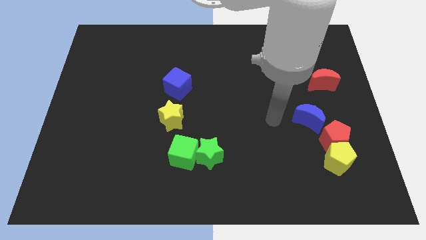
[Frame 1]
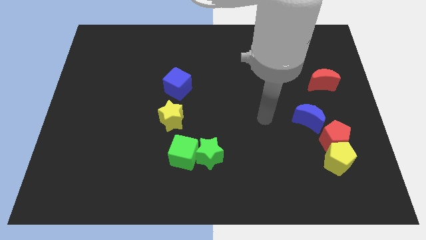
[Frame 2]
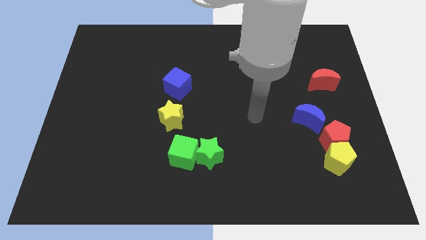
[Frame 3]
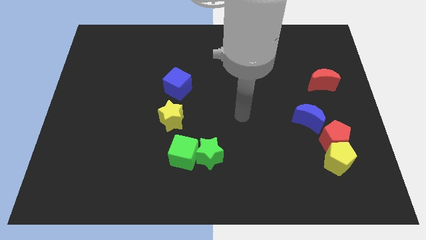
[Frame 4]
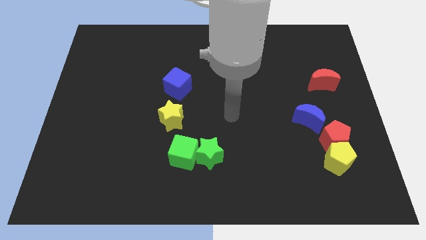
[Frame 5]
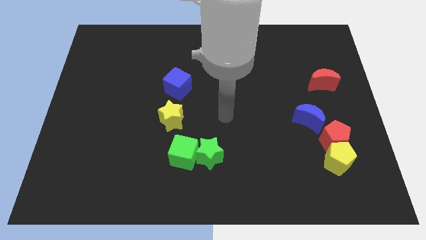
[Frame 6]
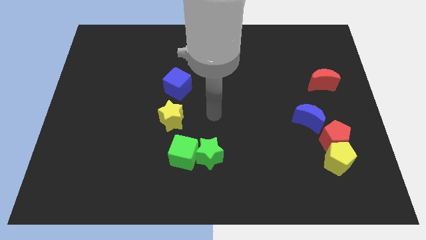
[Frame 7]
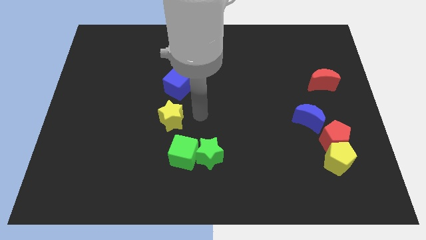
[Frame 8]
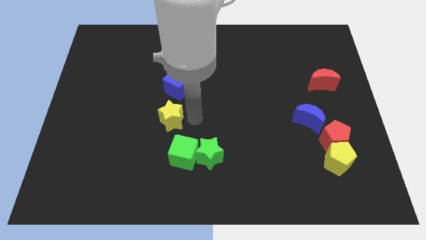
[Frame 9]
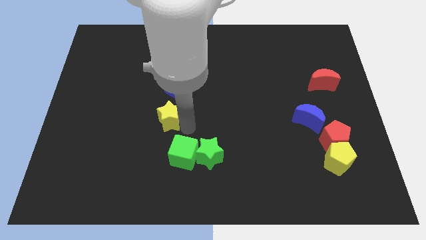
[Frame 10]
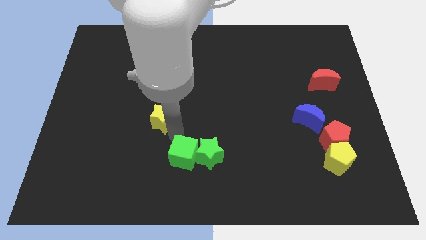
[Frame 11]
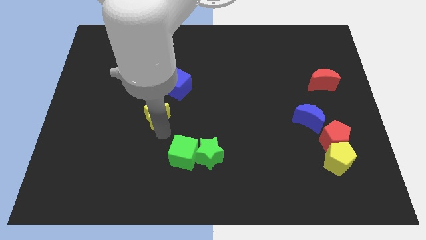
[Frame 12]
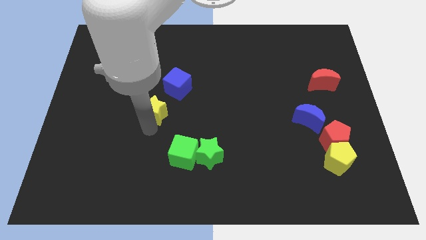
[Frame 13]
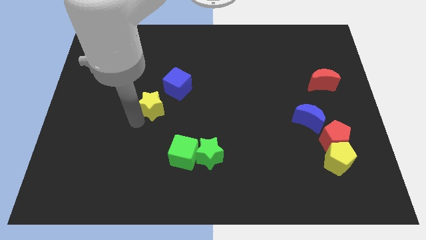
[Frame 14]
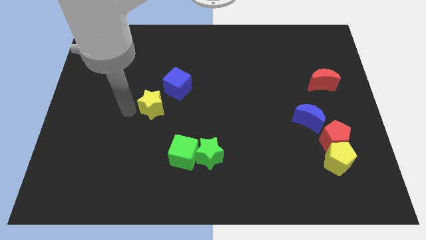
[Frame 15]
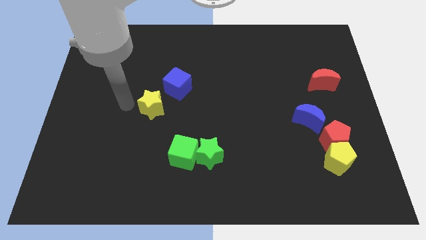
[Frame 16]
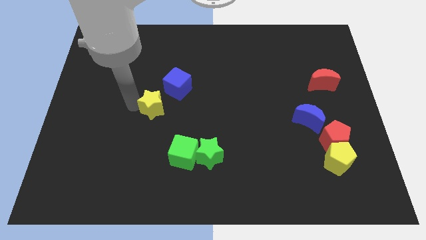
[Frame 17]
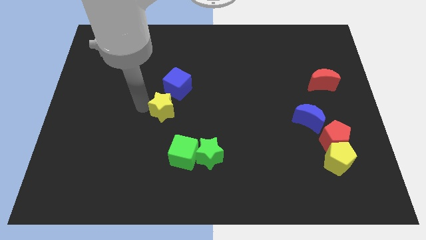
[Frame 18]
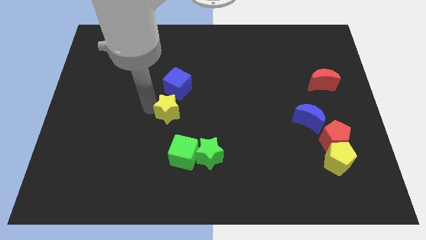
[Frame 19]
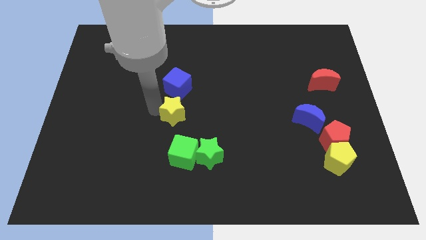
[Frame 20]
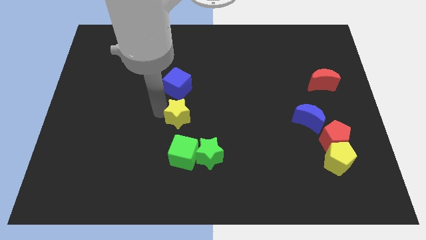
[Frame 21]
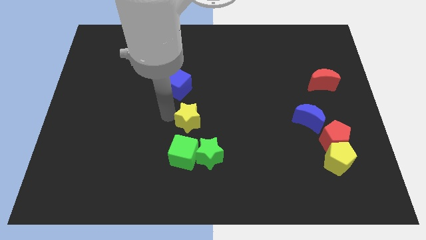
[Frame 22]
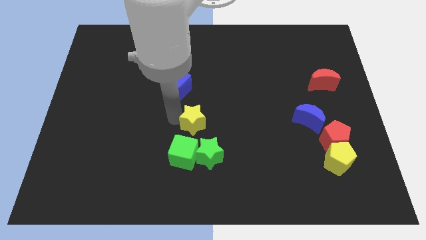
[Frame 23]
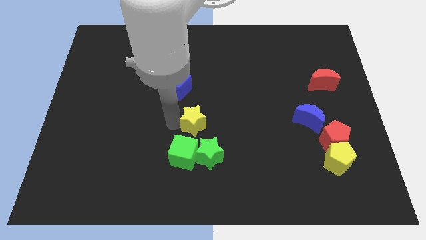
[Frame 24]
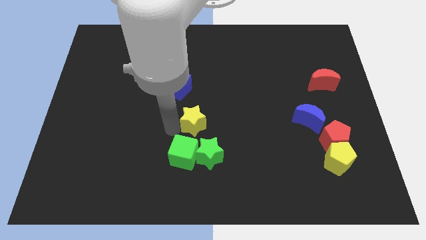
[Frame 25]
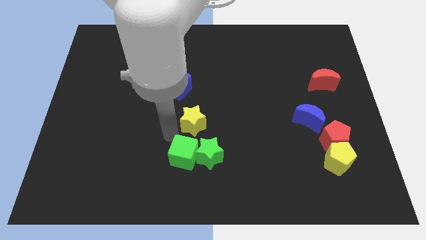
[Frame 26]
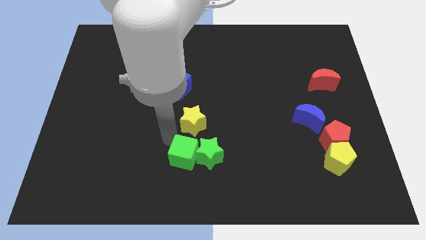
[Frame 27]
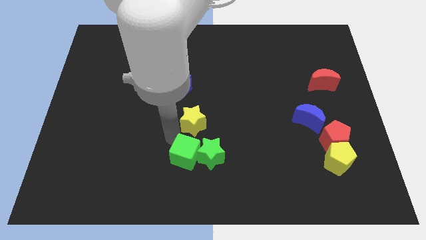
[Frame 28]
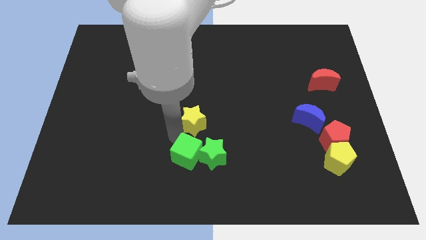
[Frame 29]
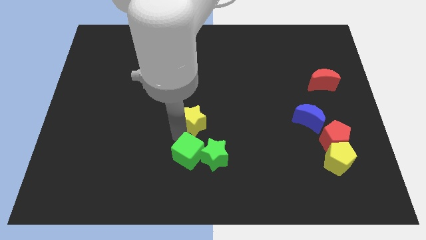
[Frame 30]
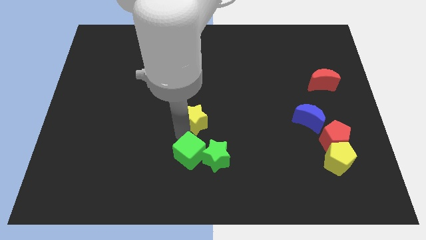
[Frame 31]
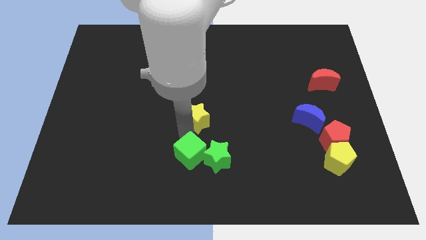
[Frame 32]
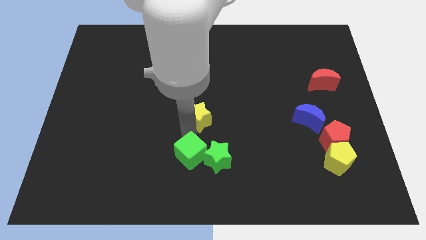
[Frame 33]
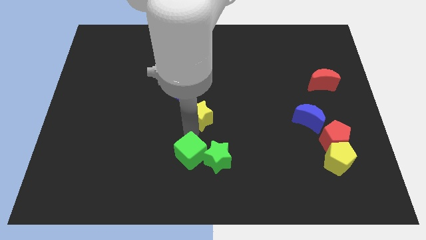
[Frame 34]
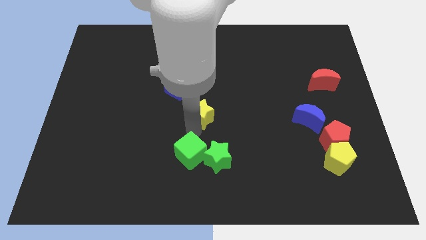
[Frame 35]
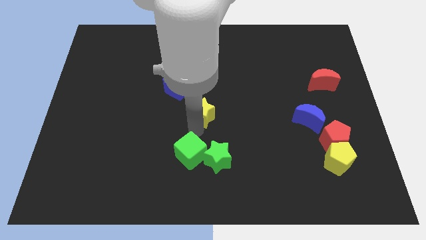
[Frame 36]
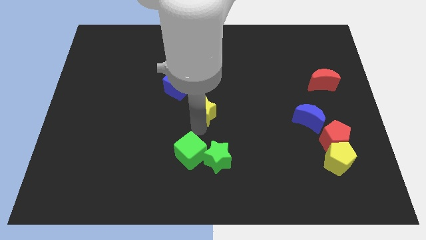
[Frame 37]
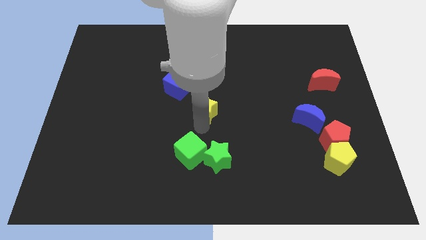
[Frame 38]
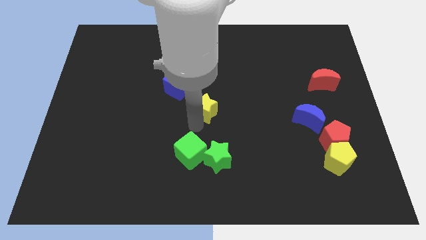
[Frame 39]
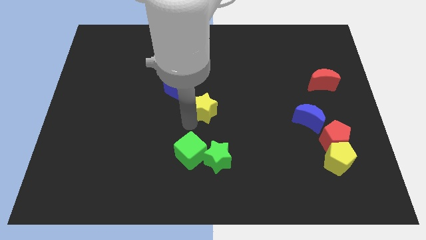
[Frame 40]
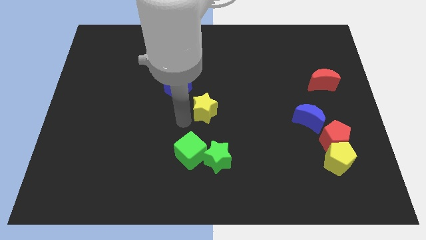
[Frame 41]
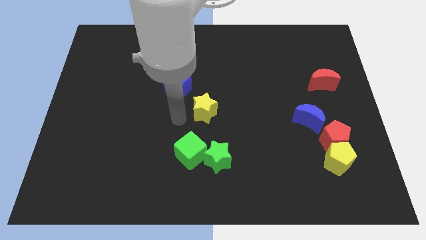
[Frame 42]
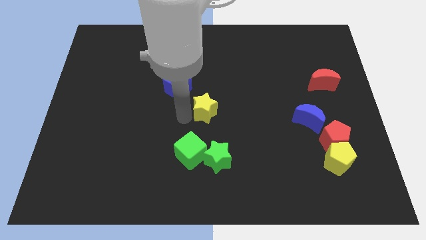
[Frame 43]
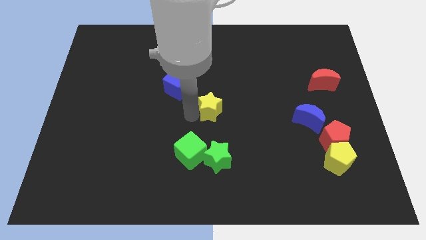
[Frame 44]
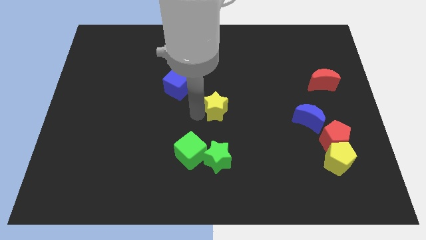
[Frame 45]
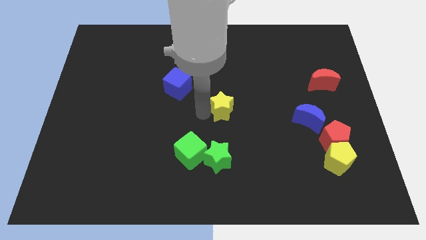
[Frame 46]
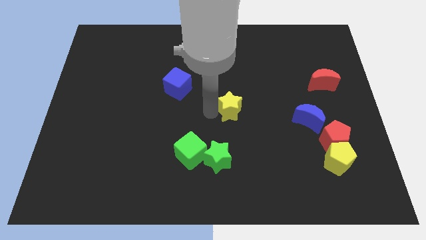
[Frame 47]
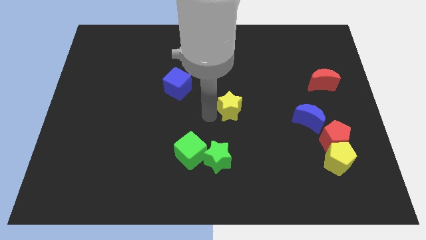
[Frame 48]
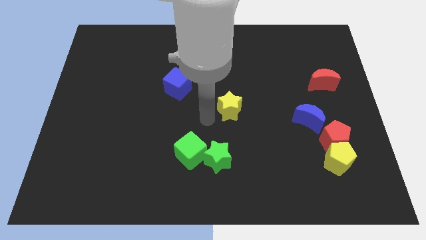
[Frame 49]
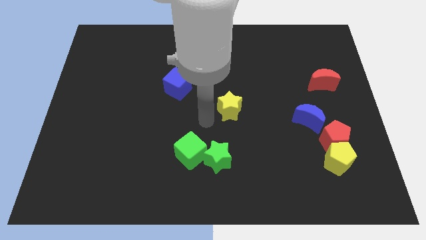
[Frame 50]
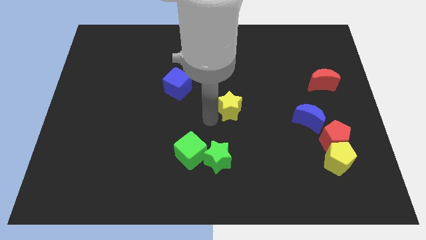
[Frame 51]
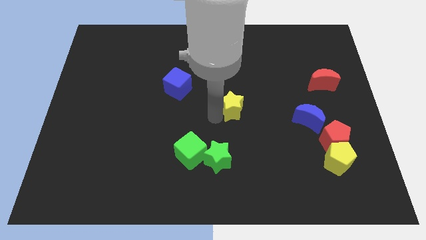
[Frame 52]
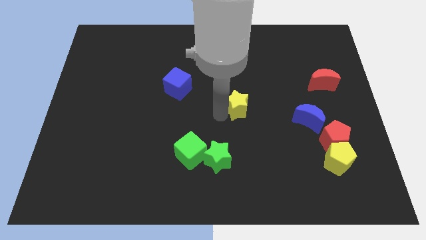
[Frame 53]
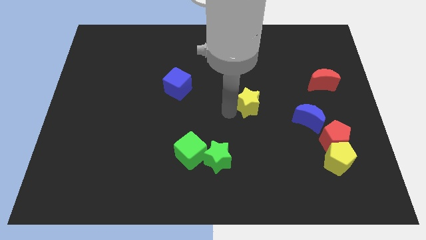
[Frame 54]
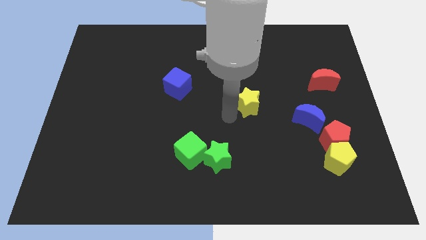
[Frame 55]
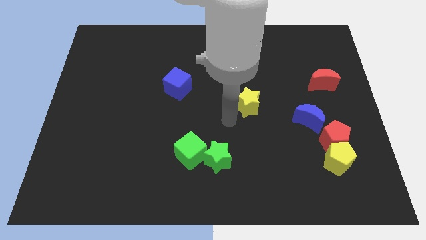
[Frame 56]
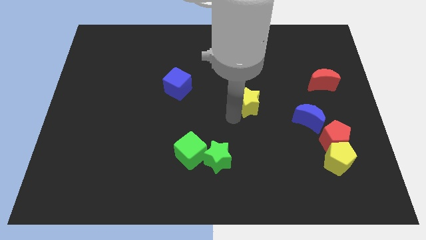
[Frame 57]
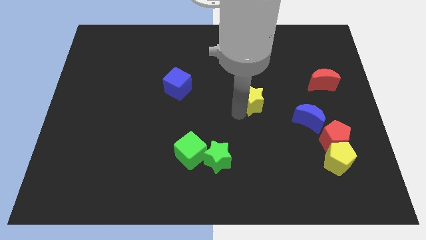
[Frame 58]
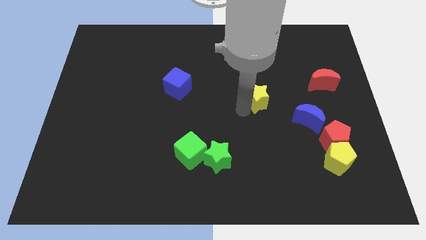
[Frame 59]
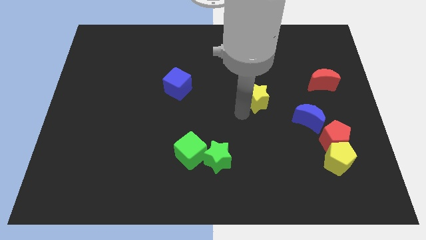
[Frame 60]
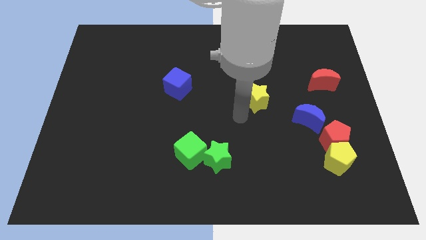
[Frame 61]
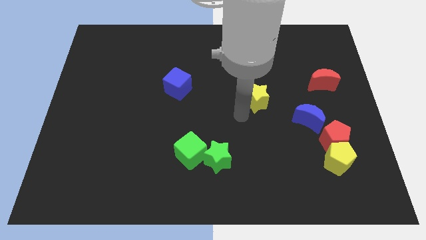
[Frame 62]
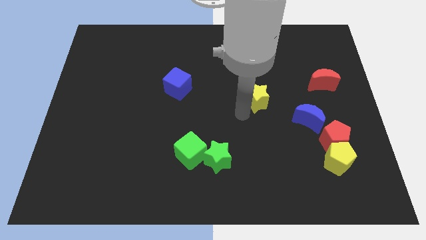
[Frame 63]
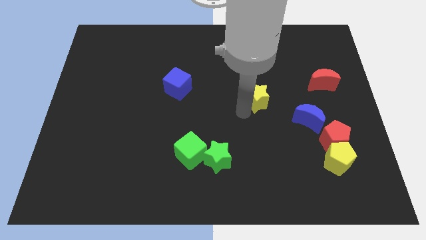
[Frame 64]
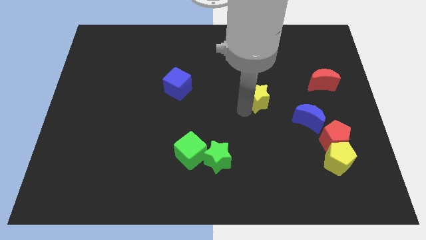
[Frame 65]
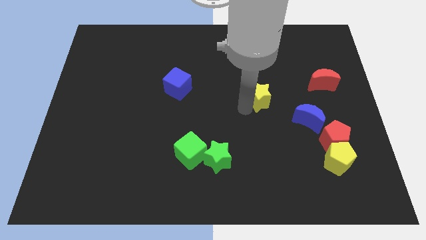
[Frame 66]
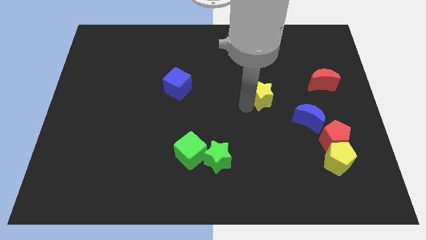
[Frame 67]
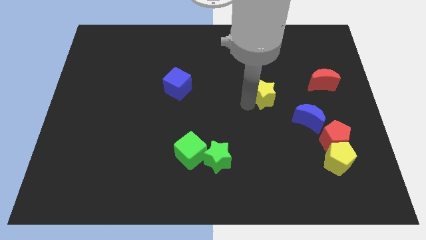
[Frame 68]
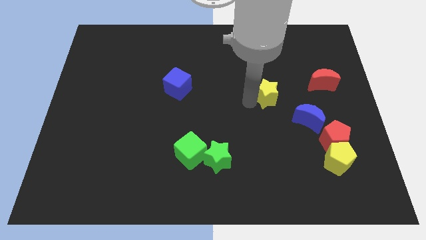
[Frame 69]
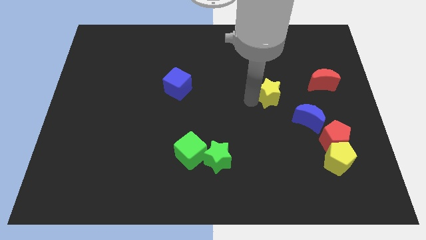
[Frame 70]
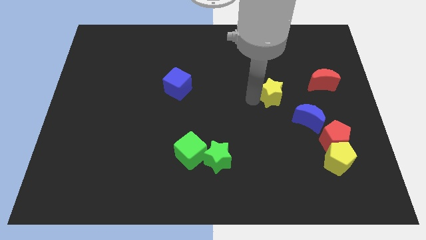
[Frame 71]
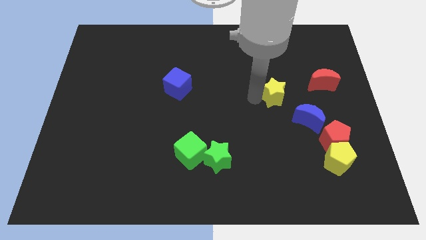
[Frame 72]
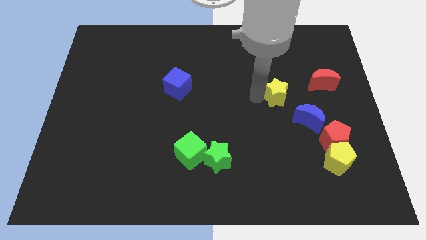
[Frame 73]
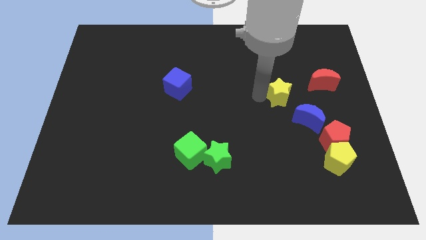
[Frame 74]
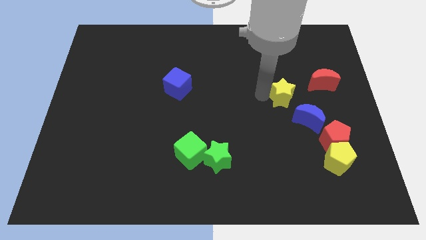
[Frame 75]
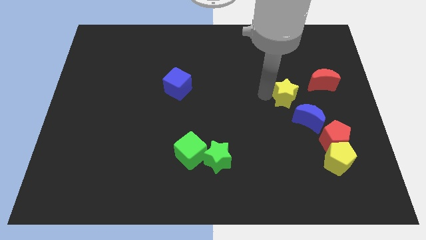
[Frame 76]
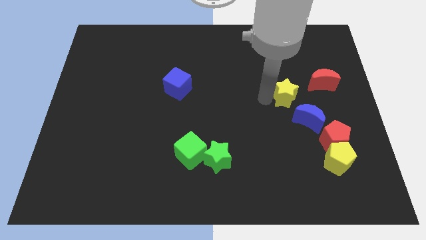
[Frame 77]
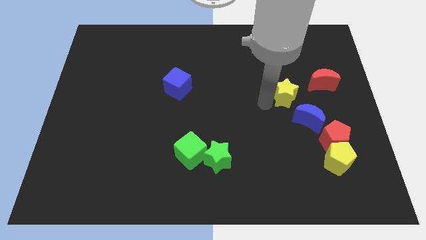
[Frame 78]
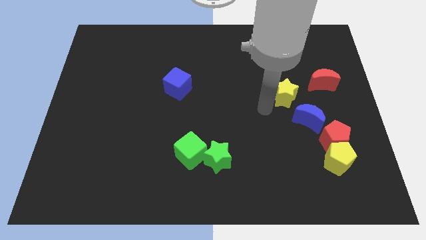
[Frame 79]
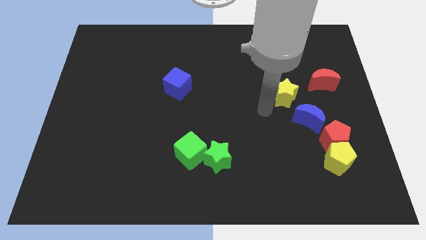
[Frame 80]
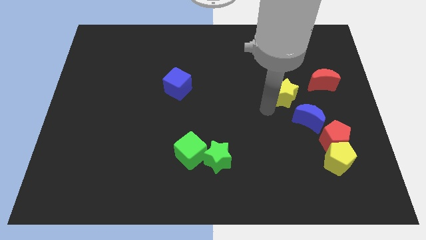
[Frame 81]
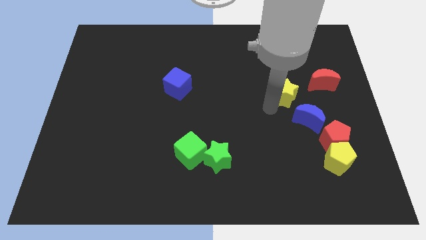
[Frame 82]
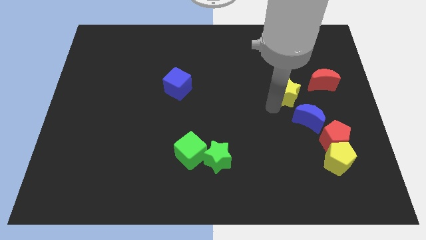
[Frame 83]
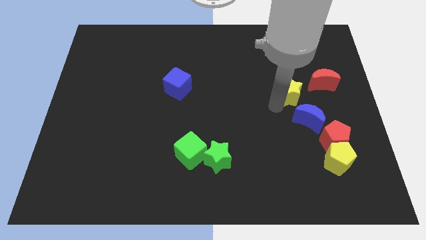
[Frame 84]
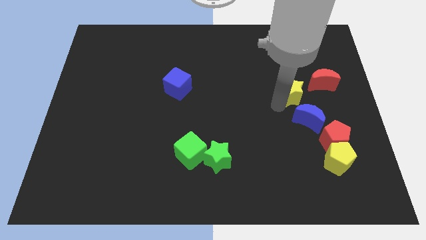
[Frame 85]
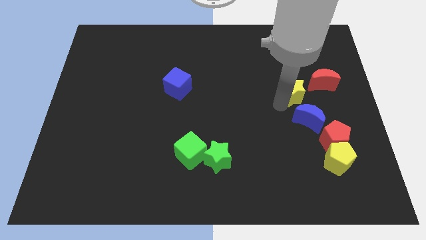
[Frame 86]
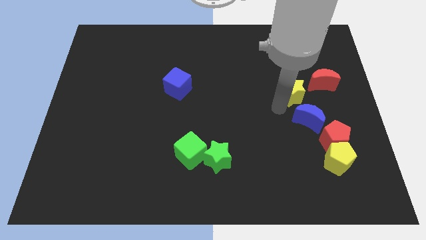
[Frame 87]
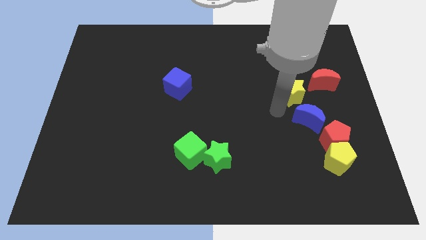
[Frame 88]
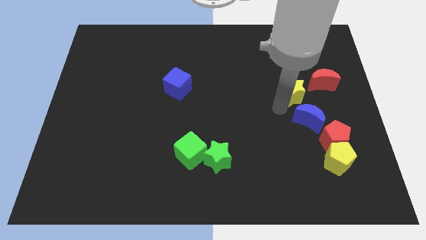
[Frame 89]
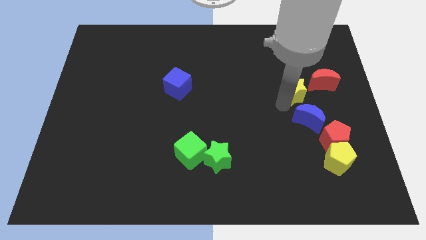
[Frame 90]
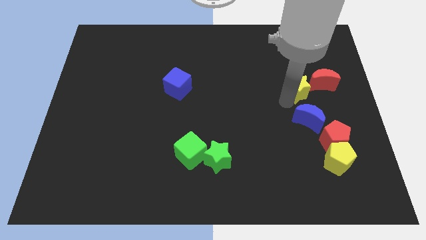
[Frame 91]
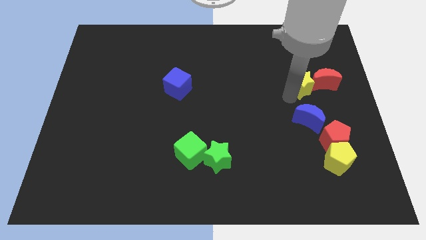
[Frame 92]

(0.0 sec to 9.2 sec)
slide the yellow star to the red moon
